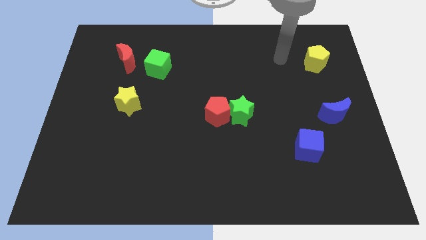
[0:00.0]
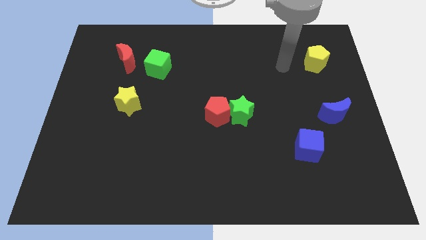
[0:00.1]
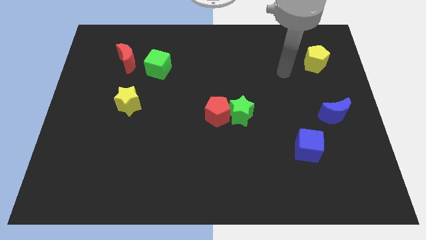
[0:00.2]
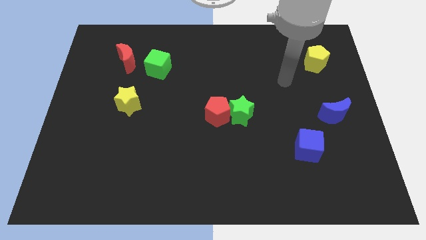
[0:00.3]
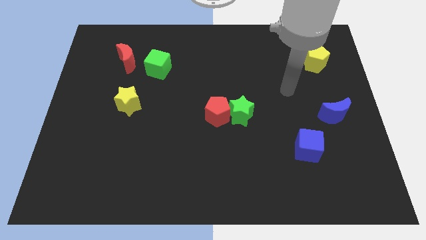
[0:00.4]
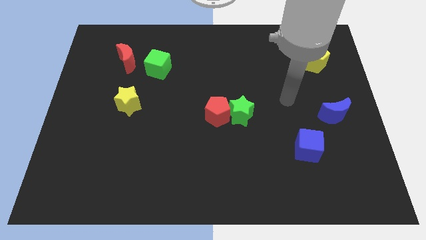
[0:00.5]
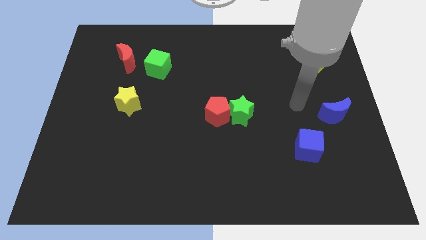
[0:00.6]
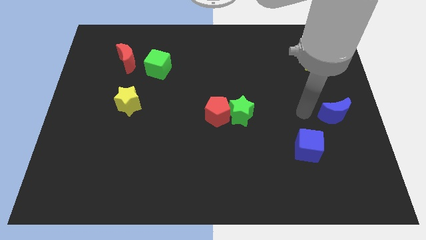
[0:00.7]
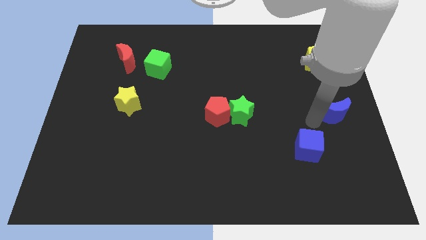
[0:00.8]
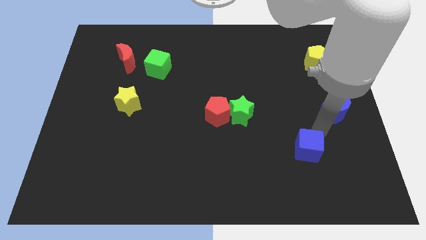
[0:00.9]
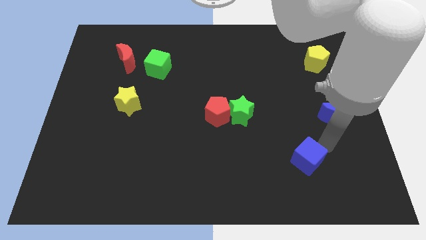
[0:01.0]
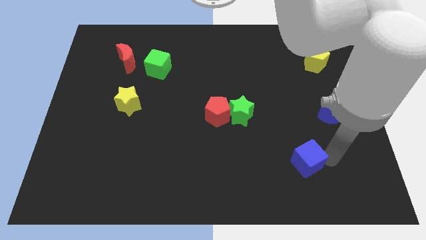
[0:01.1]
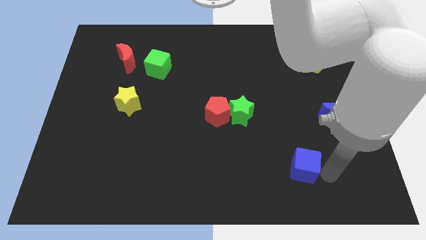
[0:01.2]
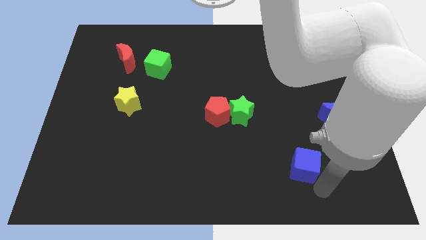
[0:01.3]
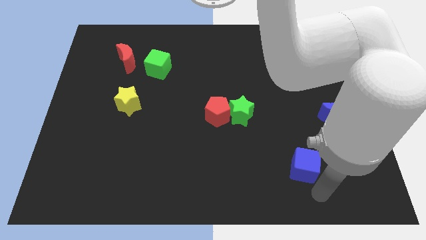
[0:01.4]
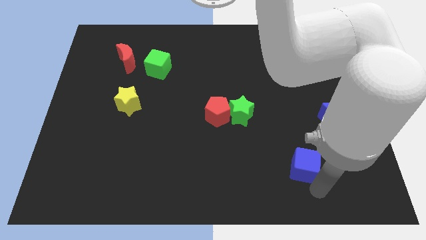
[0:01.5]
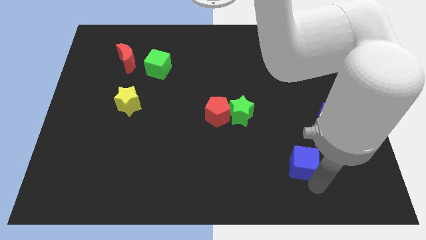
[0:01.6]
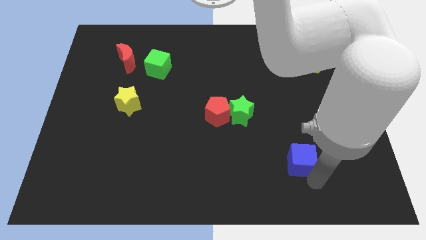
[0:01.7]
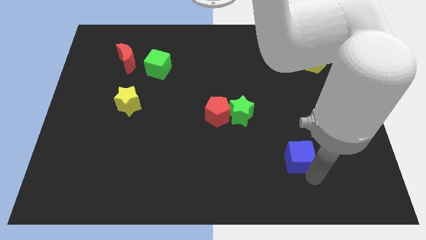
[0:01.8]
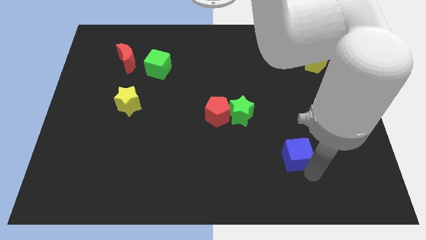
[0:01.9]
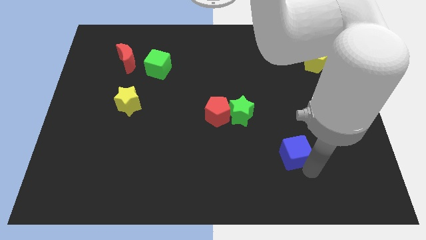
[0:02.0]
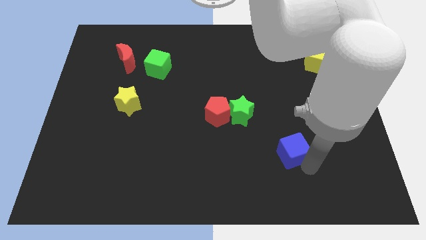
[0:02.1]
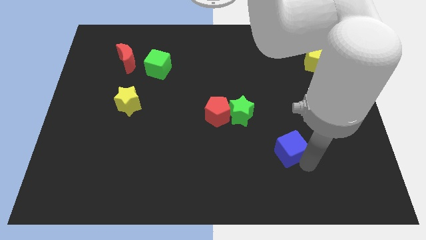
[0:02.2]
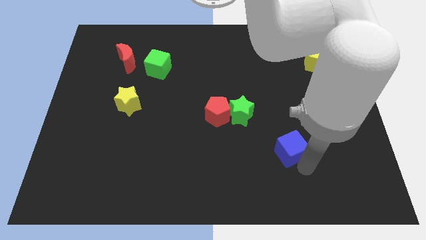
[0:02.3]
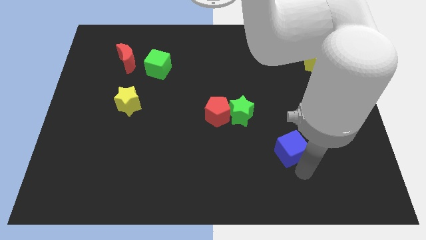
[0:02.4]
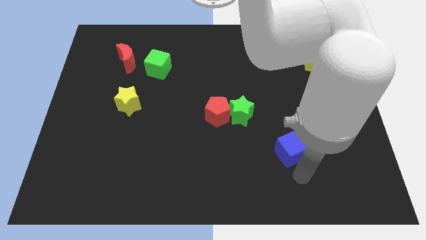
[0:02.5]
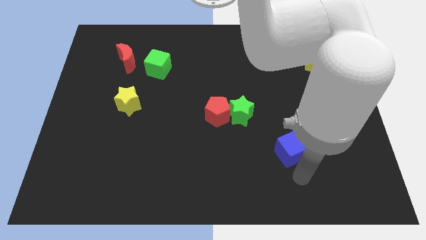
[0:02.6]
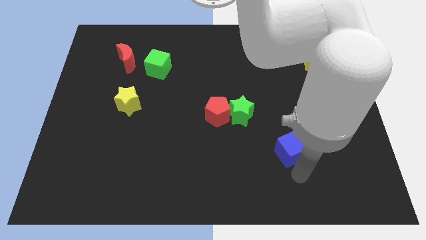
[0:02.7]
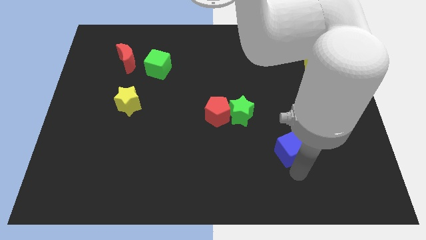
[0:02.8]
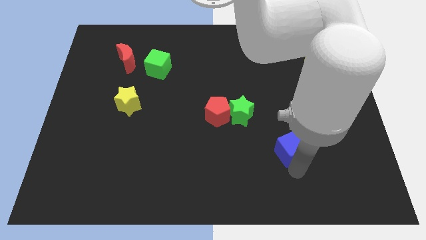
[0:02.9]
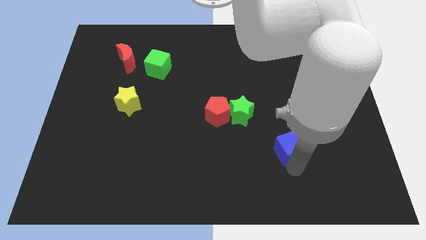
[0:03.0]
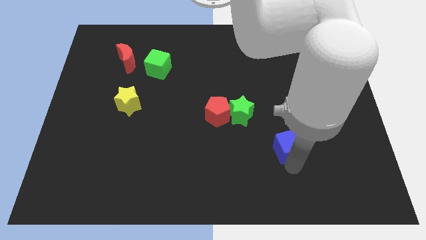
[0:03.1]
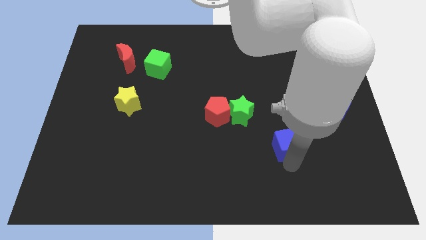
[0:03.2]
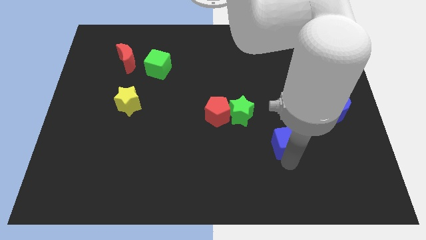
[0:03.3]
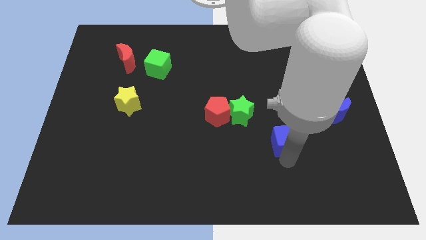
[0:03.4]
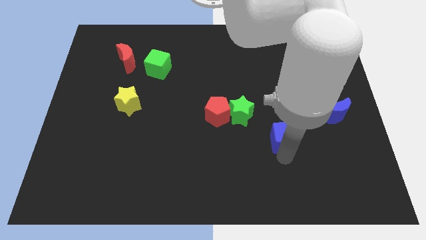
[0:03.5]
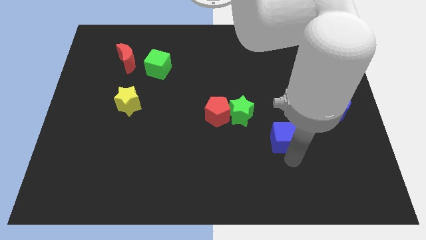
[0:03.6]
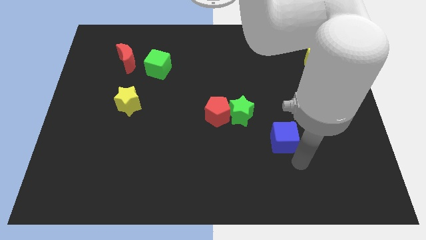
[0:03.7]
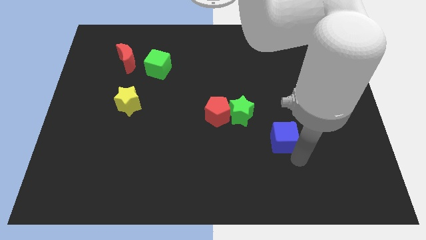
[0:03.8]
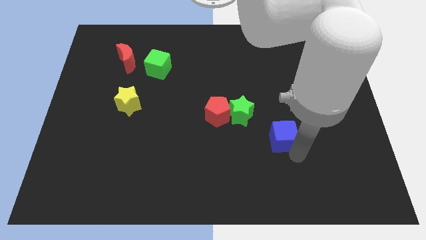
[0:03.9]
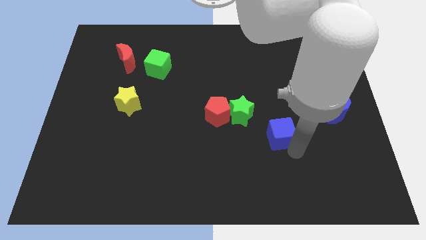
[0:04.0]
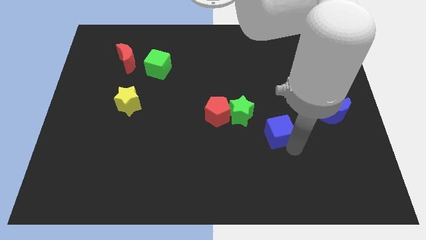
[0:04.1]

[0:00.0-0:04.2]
push the blue cube a little diagonally up and to the left

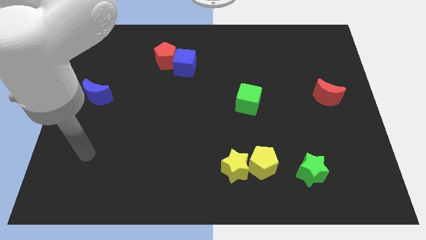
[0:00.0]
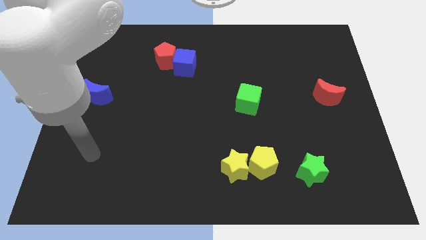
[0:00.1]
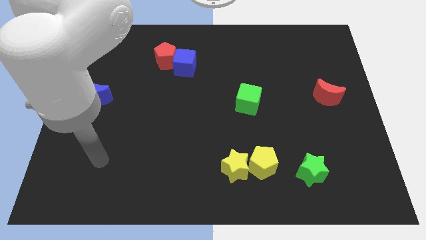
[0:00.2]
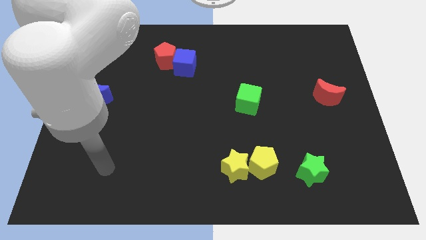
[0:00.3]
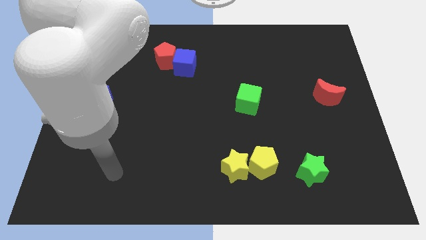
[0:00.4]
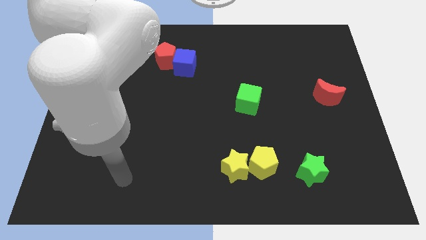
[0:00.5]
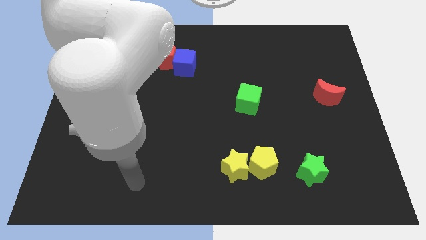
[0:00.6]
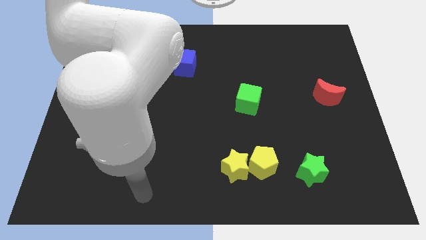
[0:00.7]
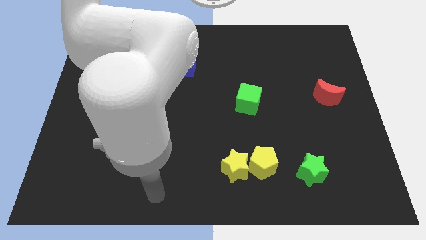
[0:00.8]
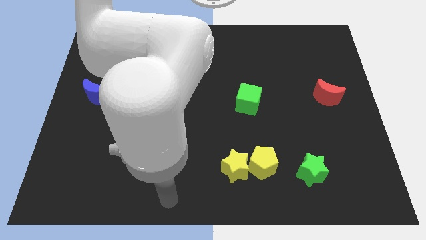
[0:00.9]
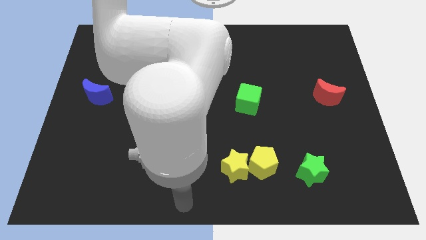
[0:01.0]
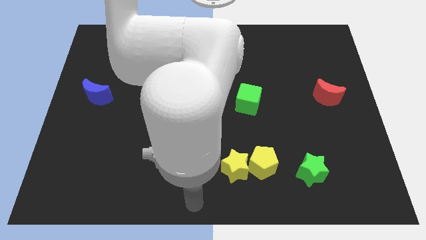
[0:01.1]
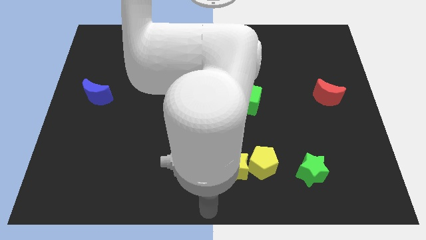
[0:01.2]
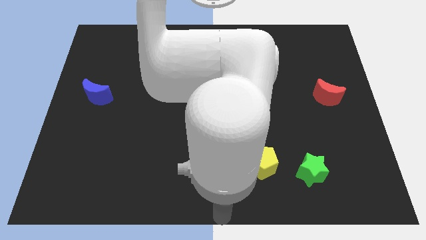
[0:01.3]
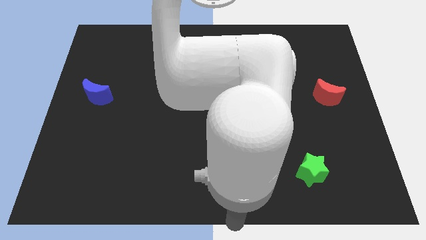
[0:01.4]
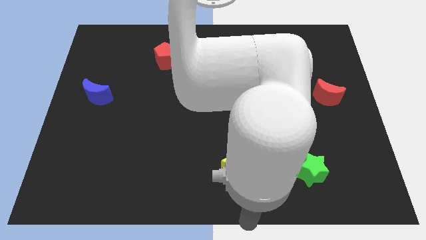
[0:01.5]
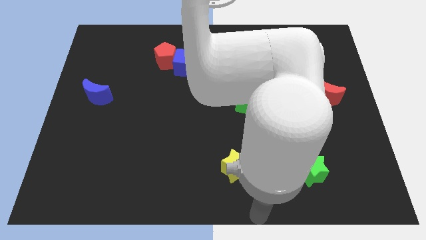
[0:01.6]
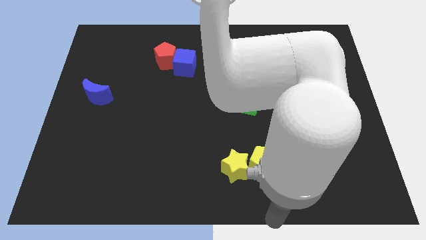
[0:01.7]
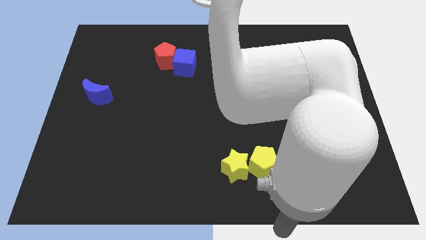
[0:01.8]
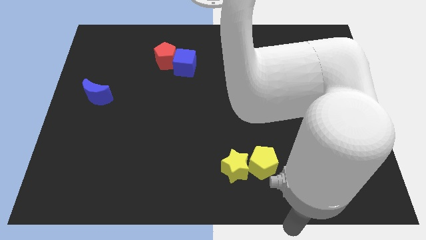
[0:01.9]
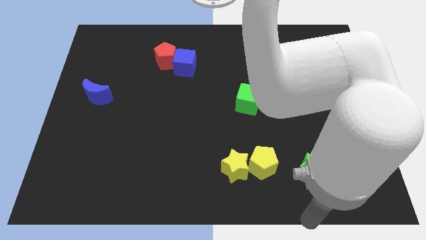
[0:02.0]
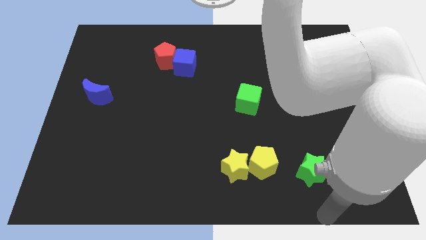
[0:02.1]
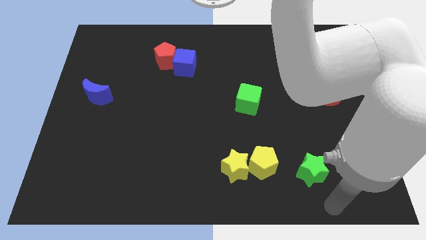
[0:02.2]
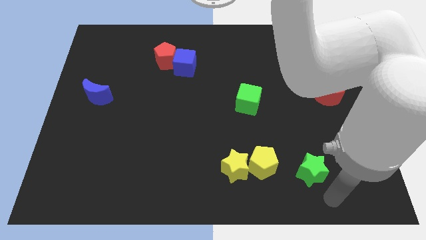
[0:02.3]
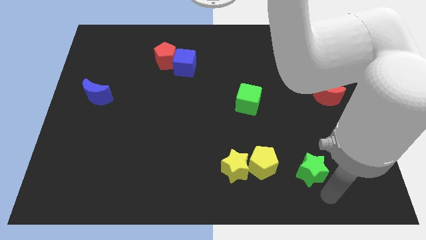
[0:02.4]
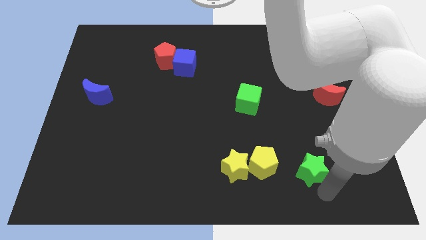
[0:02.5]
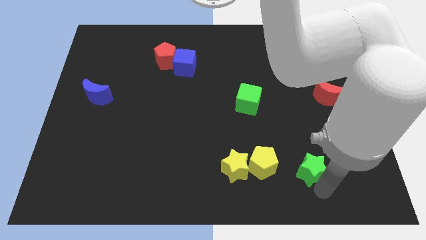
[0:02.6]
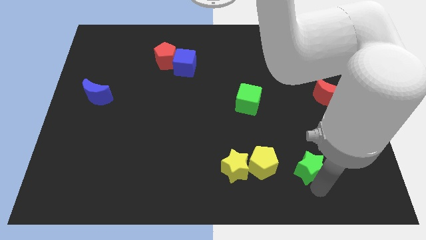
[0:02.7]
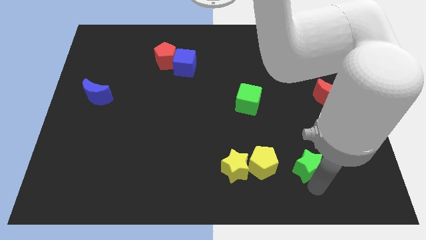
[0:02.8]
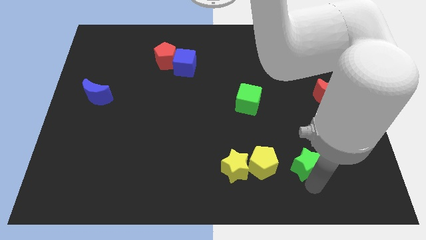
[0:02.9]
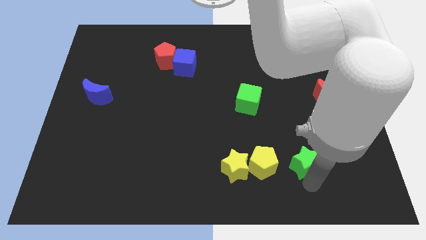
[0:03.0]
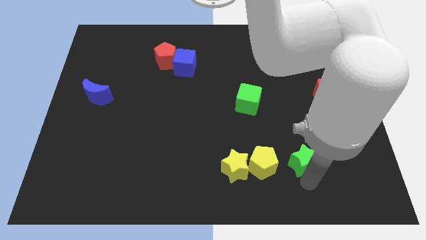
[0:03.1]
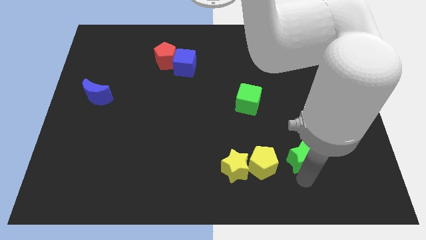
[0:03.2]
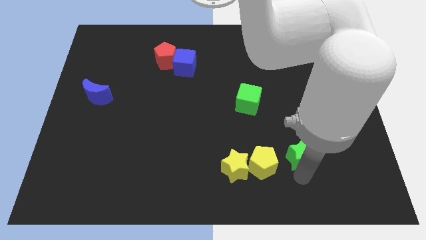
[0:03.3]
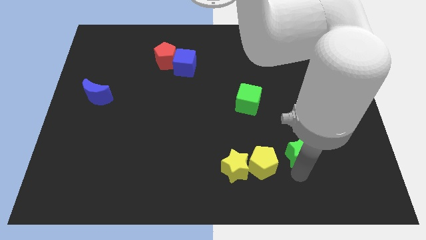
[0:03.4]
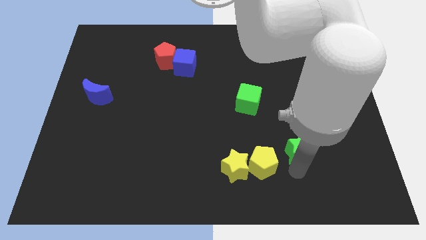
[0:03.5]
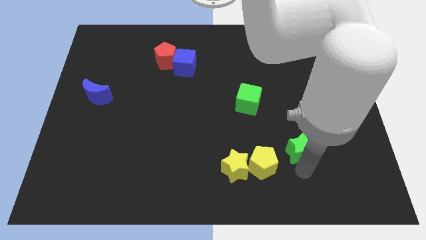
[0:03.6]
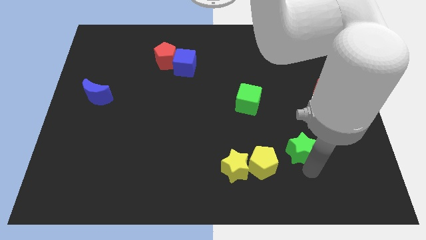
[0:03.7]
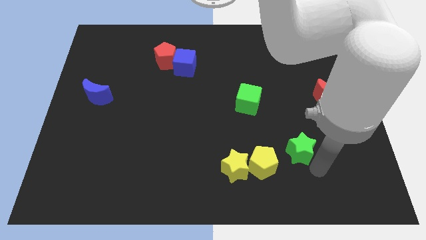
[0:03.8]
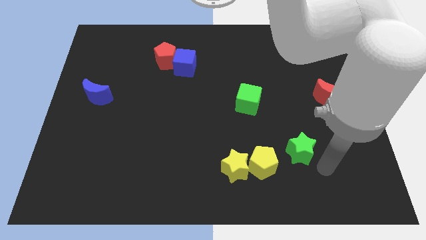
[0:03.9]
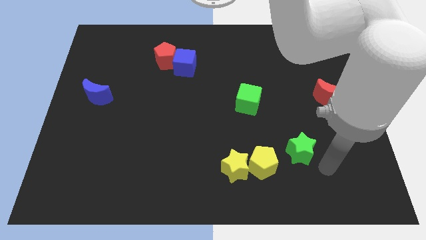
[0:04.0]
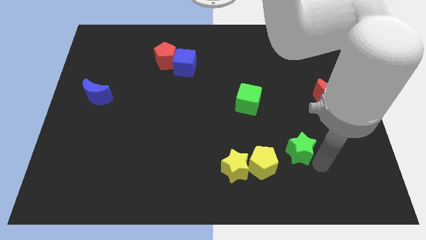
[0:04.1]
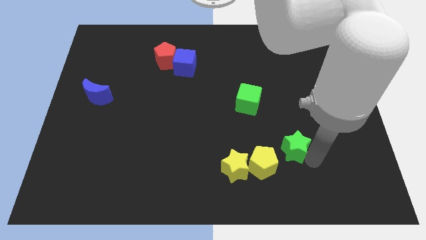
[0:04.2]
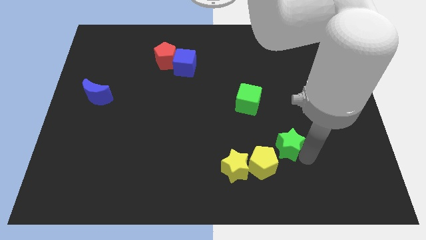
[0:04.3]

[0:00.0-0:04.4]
slide the green star upwards and then left somewhat
